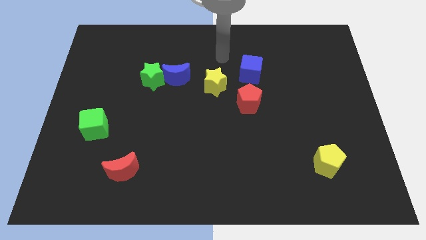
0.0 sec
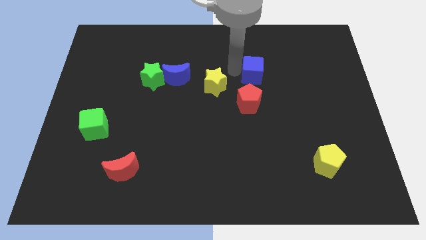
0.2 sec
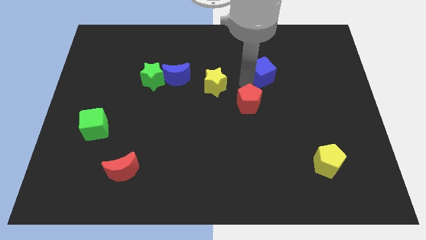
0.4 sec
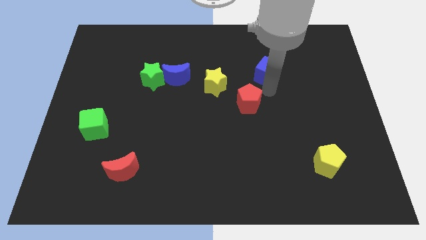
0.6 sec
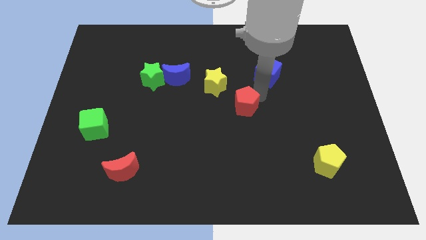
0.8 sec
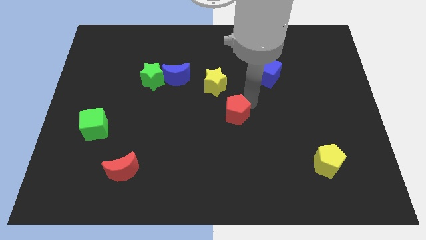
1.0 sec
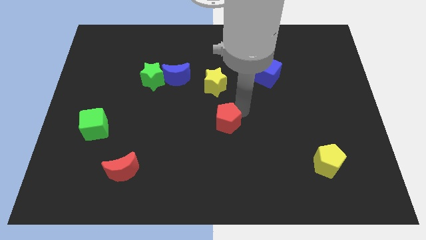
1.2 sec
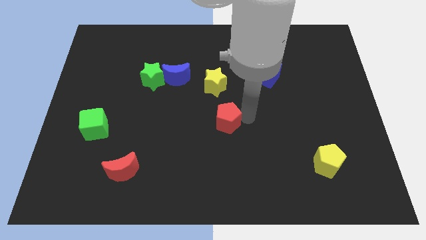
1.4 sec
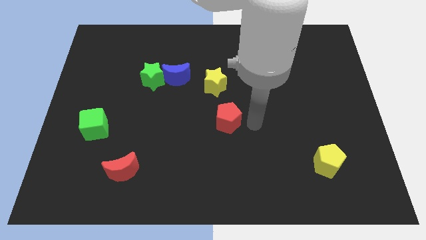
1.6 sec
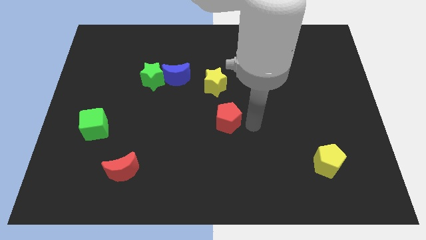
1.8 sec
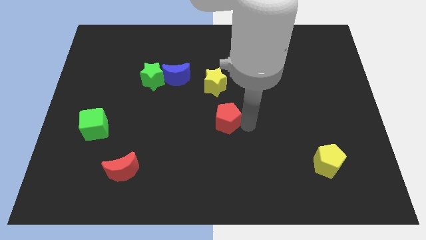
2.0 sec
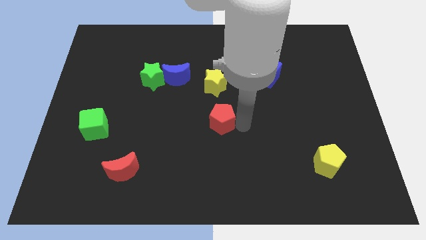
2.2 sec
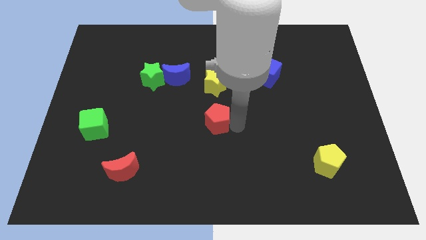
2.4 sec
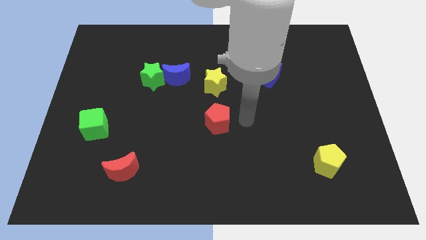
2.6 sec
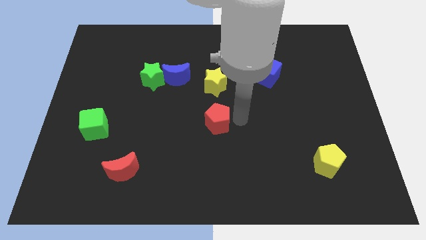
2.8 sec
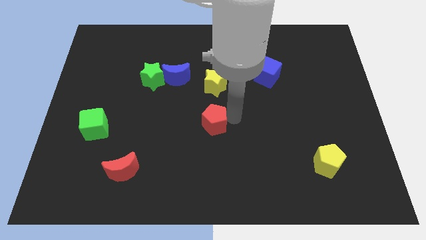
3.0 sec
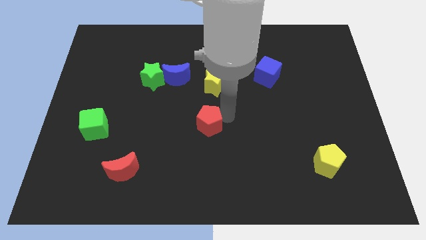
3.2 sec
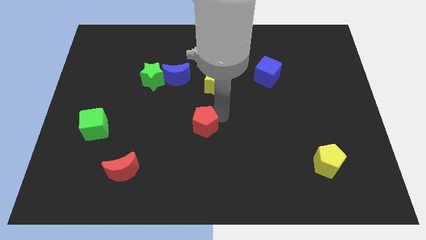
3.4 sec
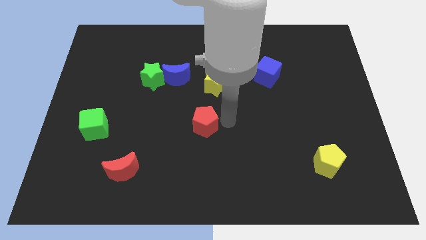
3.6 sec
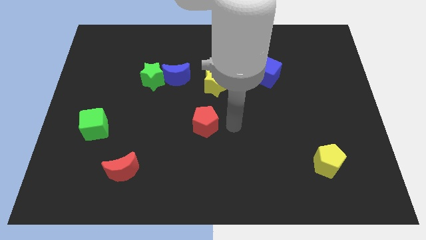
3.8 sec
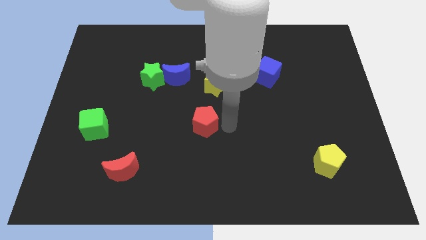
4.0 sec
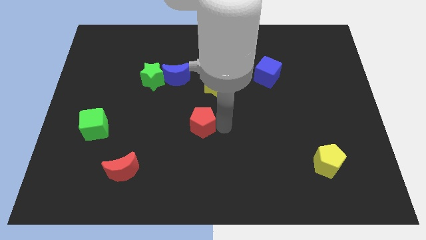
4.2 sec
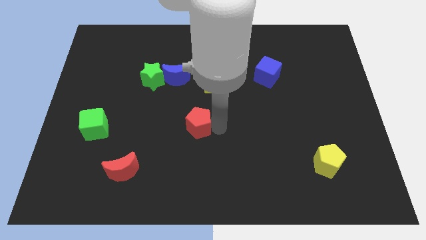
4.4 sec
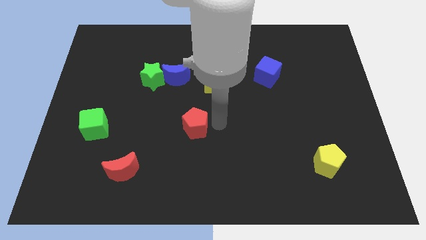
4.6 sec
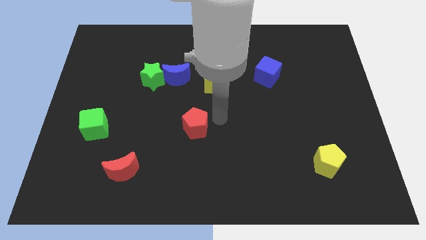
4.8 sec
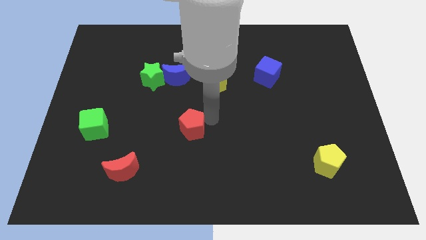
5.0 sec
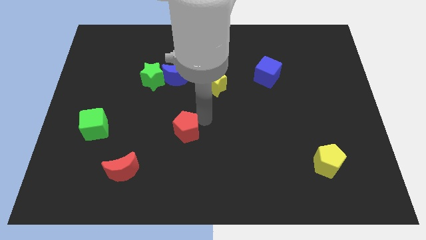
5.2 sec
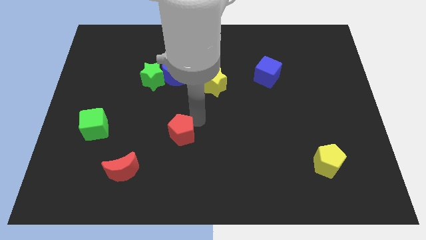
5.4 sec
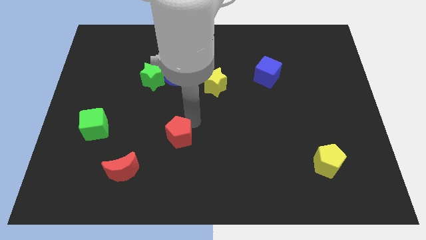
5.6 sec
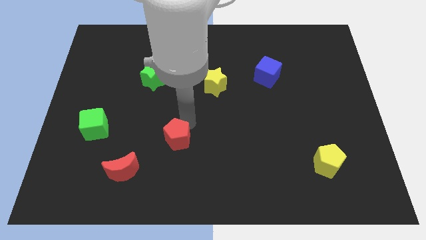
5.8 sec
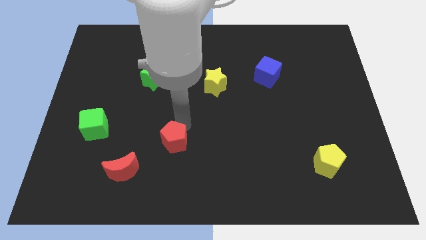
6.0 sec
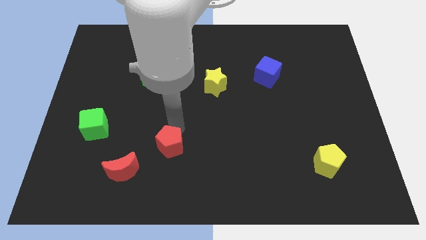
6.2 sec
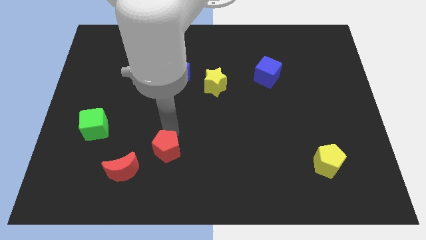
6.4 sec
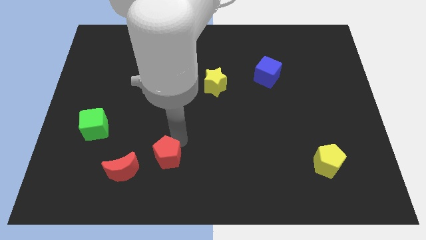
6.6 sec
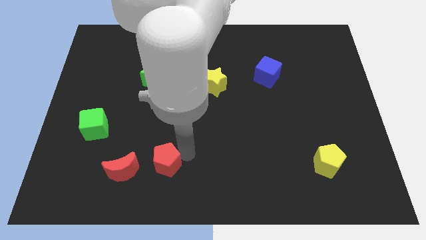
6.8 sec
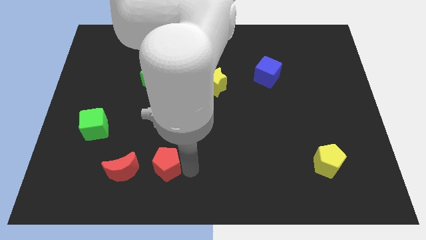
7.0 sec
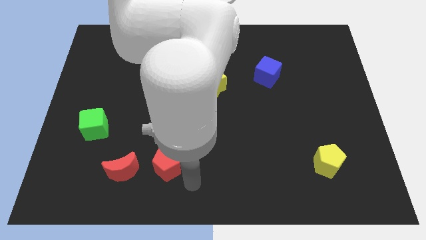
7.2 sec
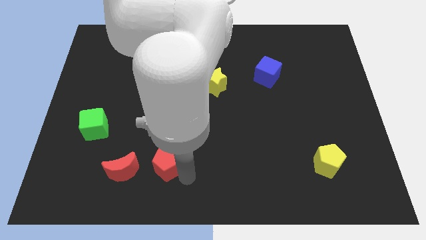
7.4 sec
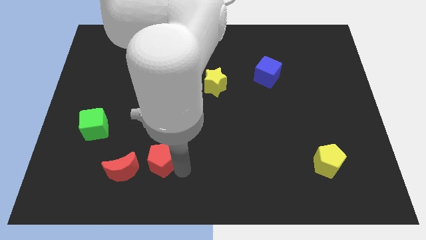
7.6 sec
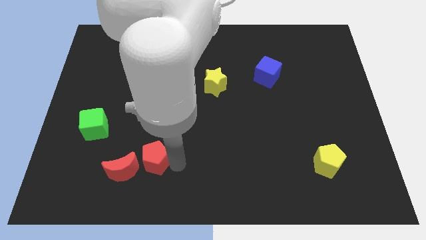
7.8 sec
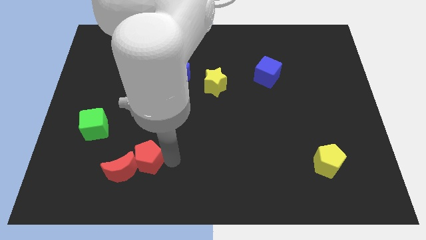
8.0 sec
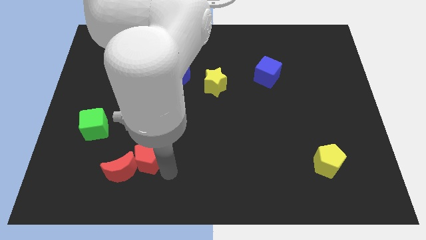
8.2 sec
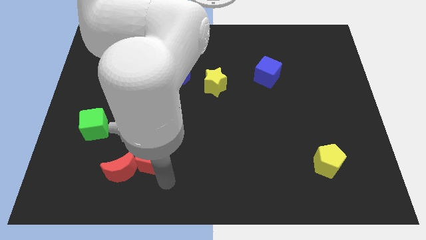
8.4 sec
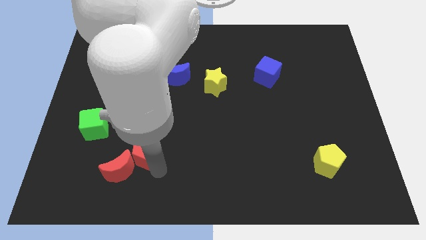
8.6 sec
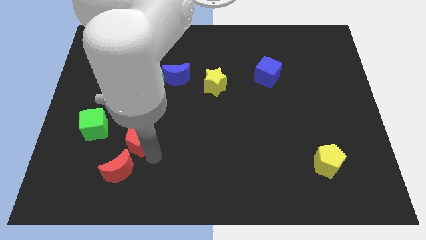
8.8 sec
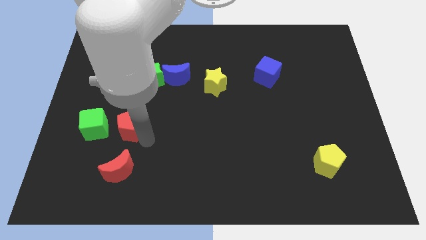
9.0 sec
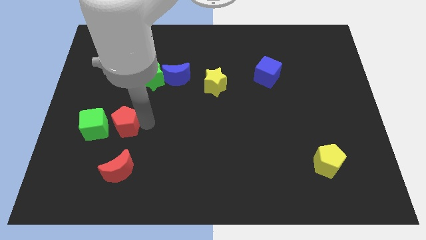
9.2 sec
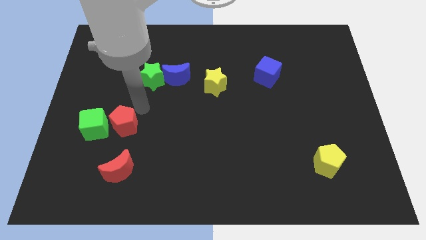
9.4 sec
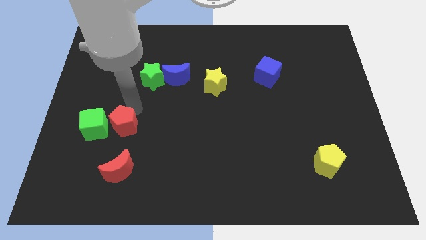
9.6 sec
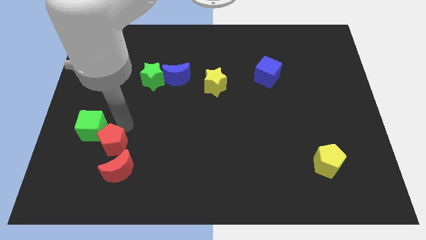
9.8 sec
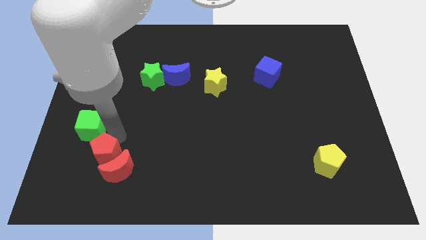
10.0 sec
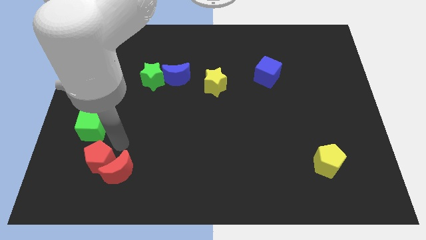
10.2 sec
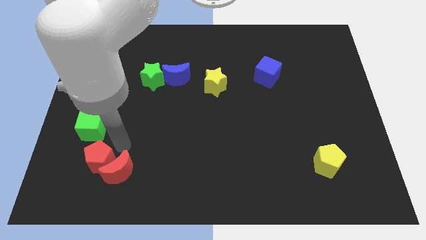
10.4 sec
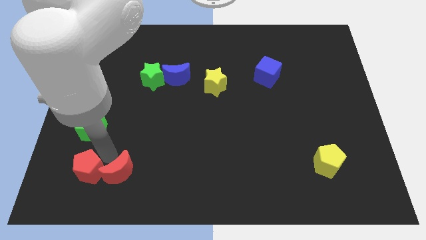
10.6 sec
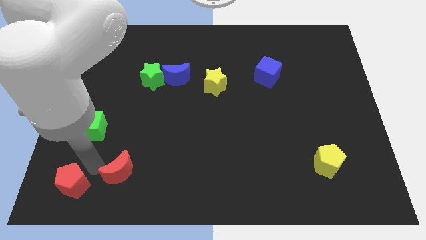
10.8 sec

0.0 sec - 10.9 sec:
slide the red pentagon to the bottom left corner
